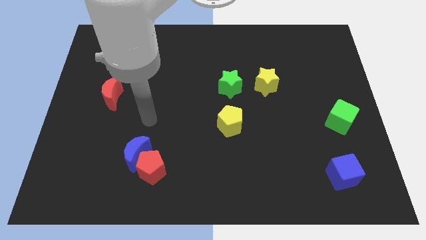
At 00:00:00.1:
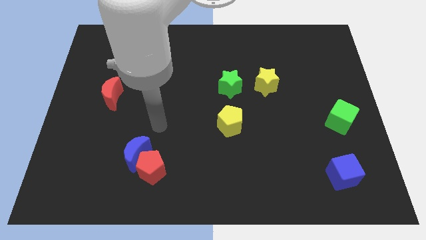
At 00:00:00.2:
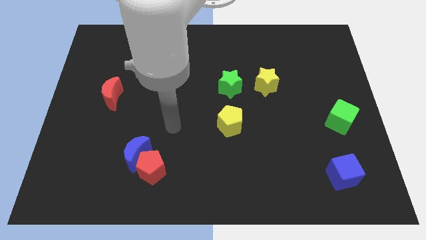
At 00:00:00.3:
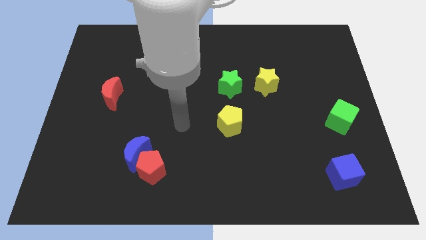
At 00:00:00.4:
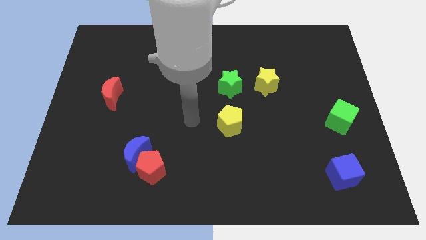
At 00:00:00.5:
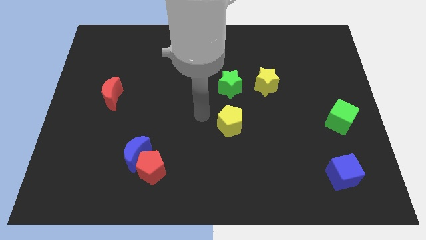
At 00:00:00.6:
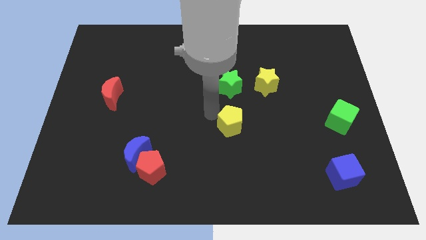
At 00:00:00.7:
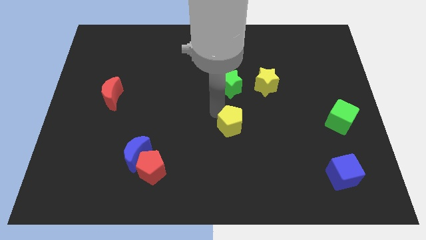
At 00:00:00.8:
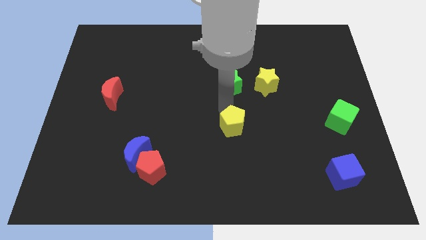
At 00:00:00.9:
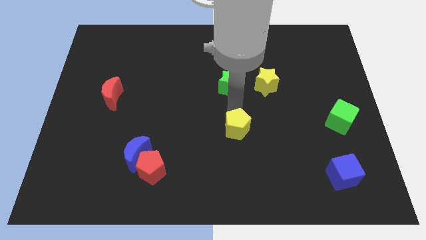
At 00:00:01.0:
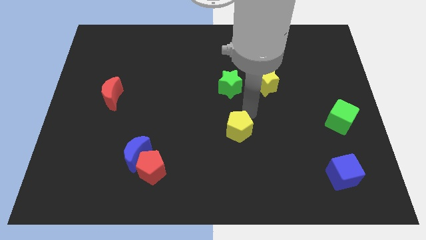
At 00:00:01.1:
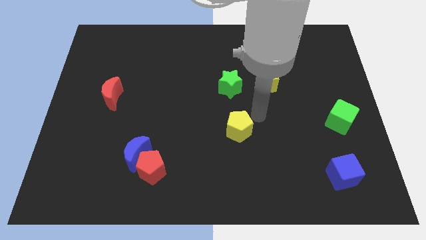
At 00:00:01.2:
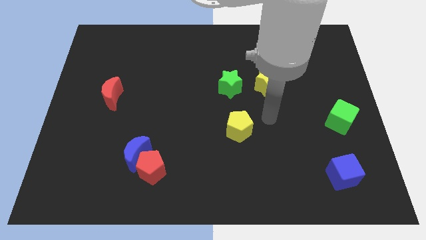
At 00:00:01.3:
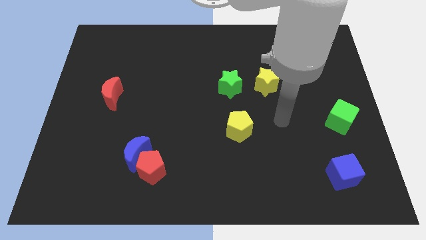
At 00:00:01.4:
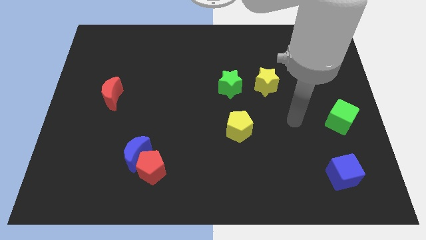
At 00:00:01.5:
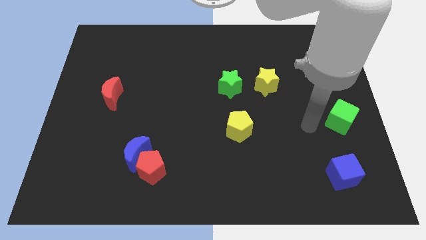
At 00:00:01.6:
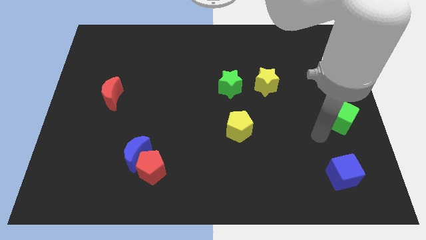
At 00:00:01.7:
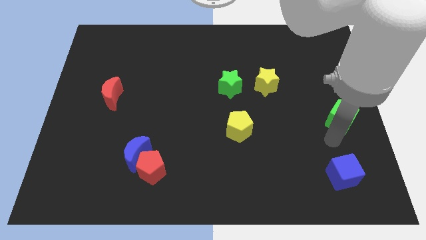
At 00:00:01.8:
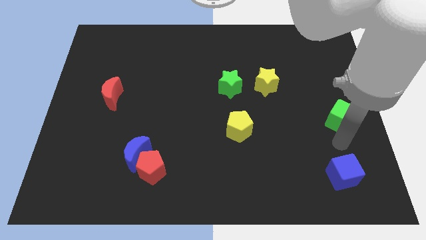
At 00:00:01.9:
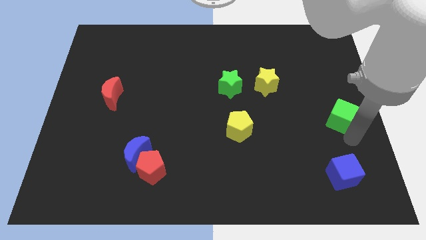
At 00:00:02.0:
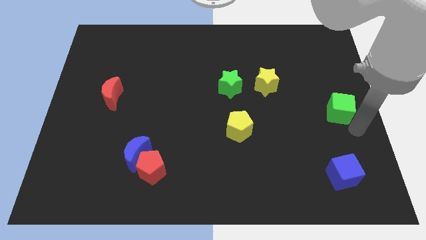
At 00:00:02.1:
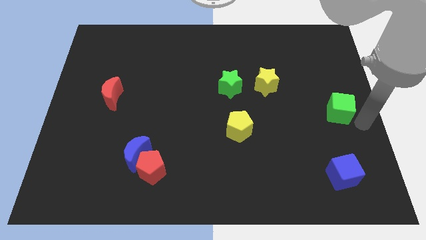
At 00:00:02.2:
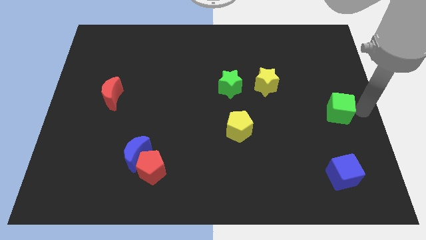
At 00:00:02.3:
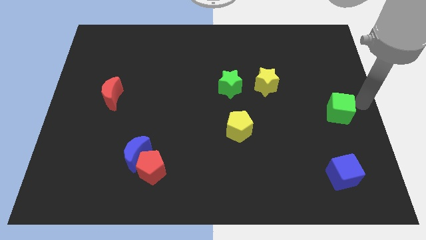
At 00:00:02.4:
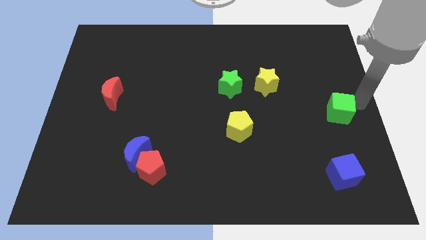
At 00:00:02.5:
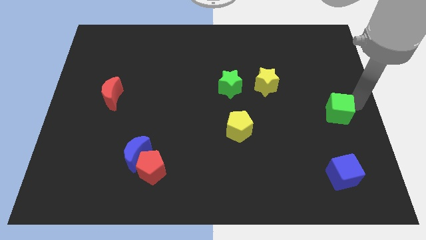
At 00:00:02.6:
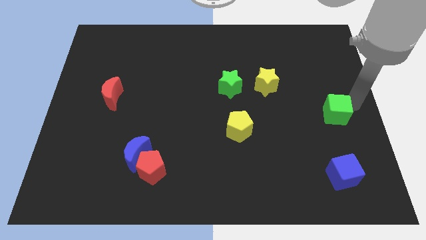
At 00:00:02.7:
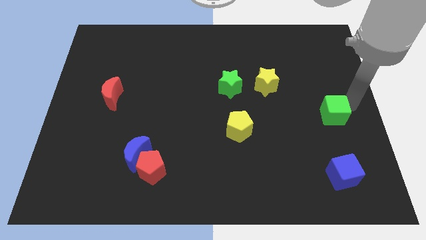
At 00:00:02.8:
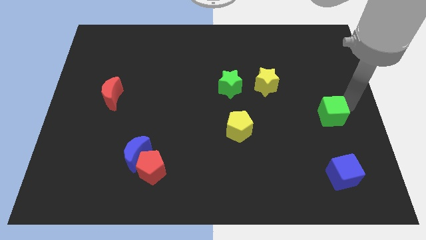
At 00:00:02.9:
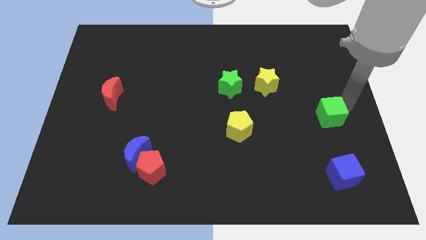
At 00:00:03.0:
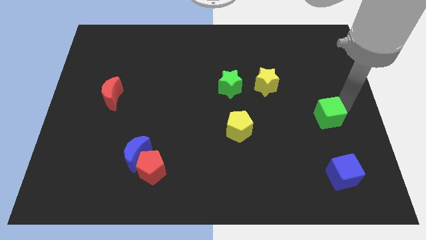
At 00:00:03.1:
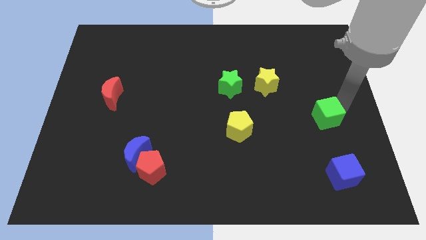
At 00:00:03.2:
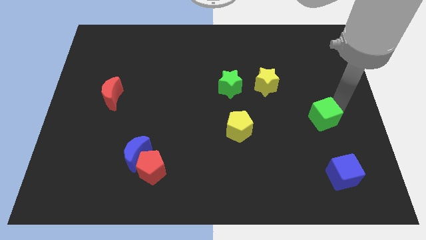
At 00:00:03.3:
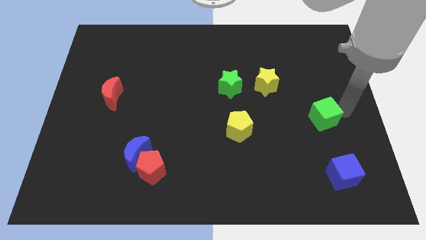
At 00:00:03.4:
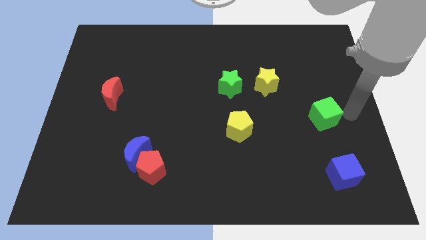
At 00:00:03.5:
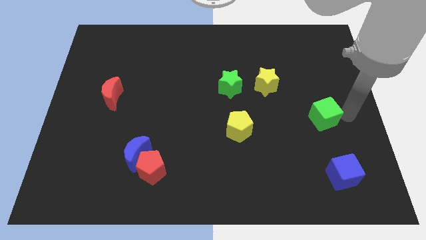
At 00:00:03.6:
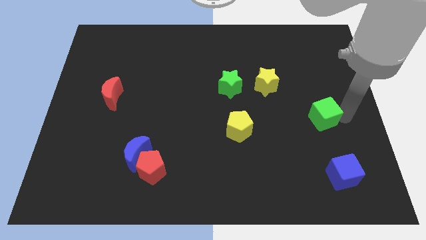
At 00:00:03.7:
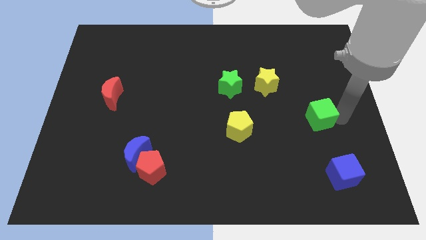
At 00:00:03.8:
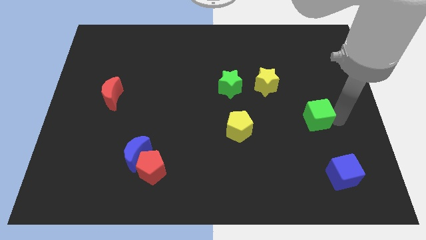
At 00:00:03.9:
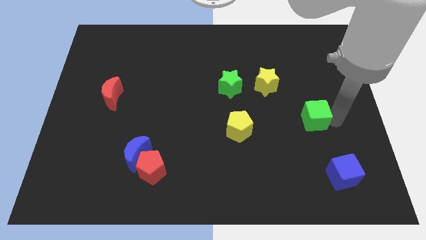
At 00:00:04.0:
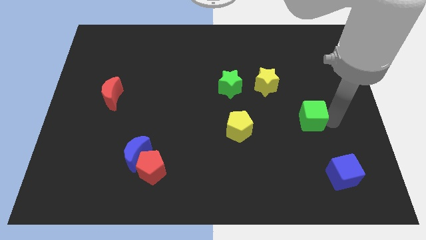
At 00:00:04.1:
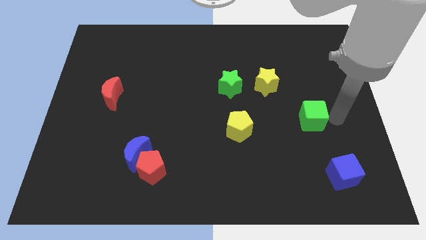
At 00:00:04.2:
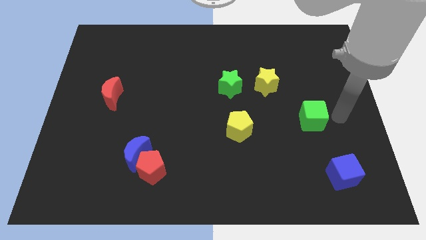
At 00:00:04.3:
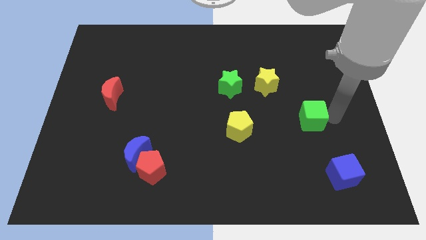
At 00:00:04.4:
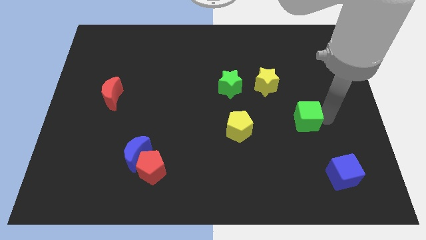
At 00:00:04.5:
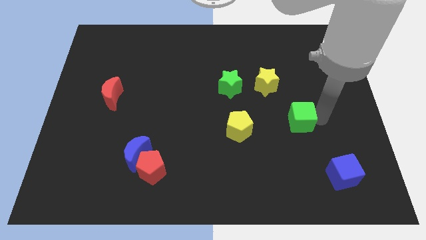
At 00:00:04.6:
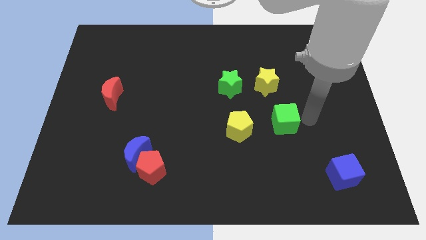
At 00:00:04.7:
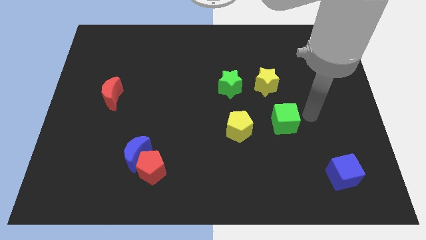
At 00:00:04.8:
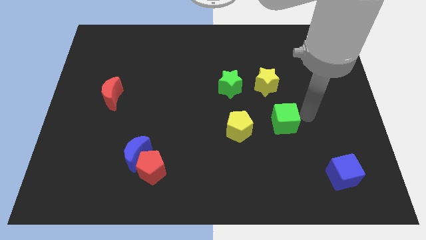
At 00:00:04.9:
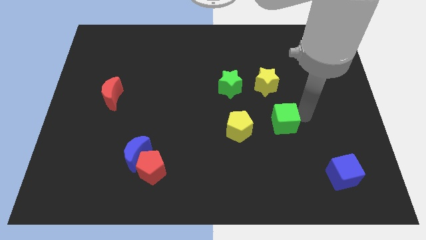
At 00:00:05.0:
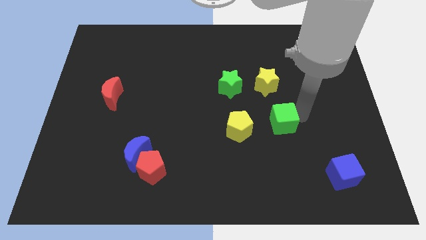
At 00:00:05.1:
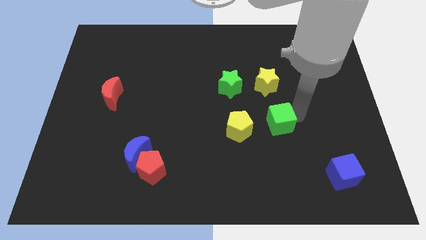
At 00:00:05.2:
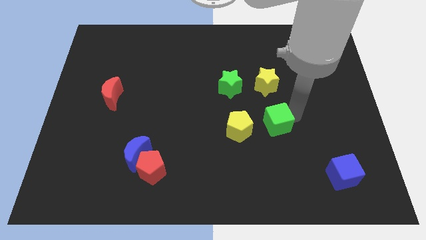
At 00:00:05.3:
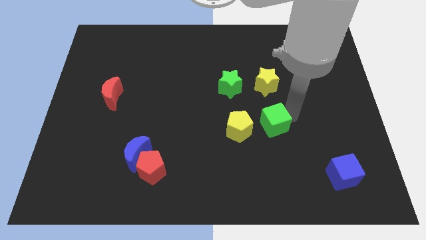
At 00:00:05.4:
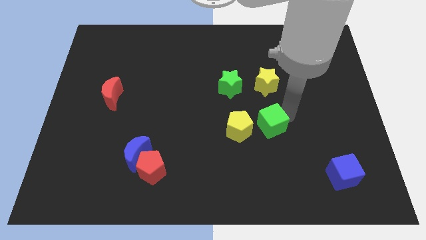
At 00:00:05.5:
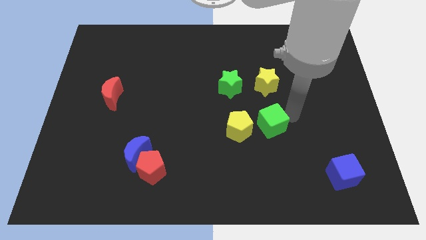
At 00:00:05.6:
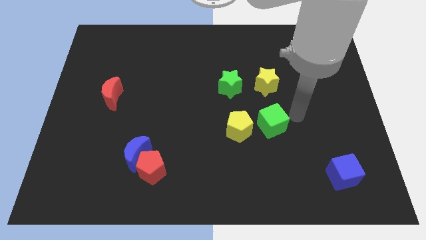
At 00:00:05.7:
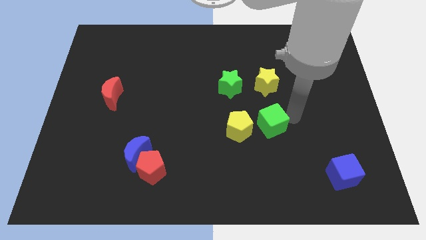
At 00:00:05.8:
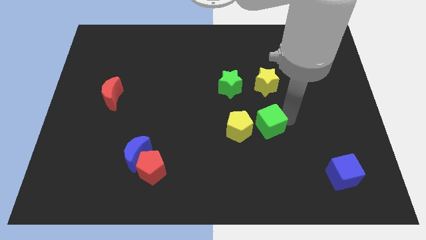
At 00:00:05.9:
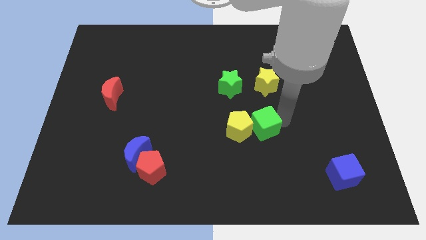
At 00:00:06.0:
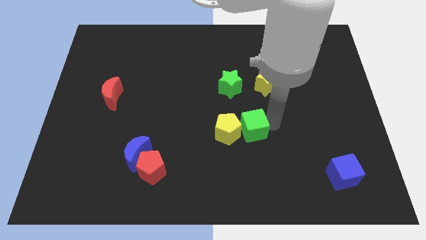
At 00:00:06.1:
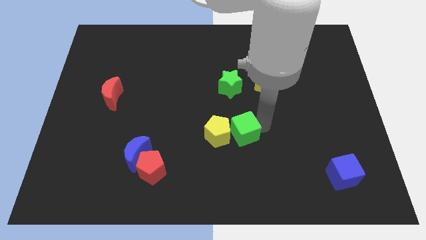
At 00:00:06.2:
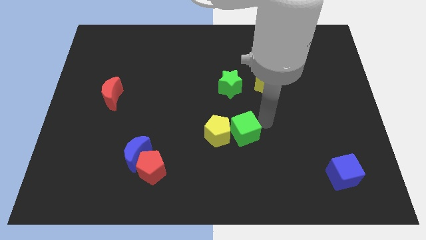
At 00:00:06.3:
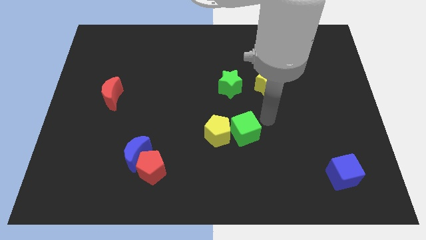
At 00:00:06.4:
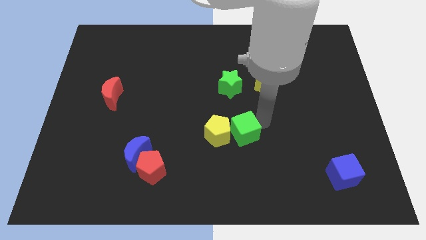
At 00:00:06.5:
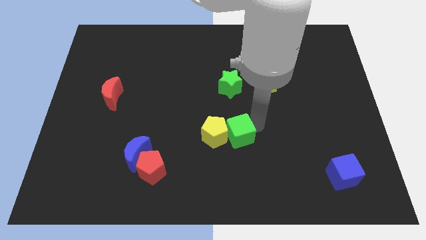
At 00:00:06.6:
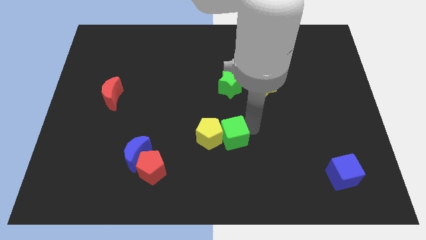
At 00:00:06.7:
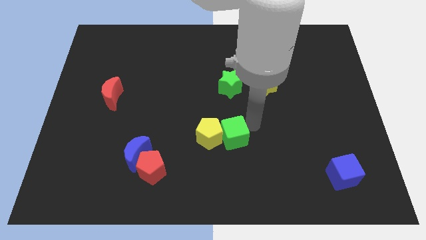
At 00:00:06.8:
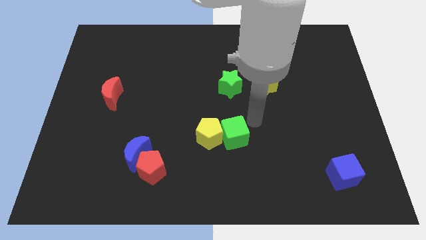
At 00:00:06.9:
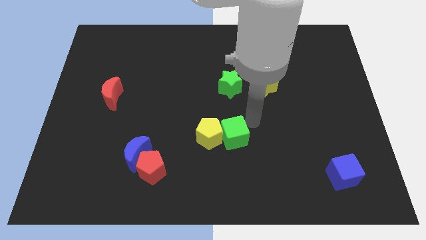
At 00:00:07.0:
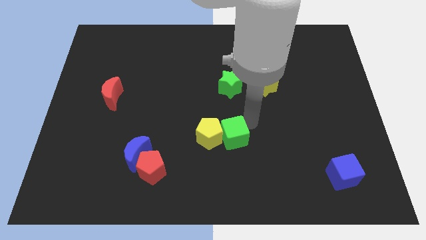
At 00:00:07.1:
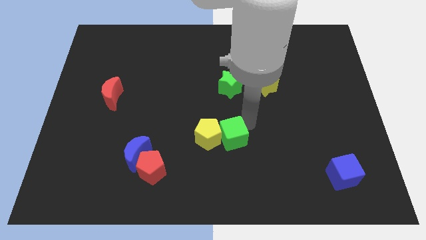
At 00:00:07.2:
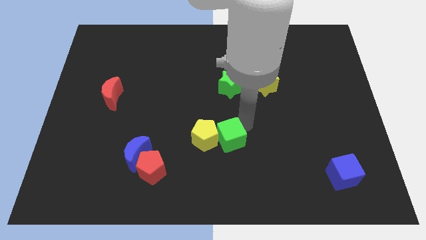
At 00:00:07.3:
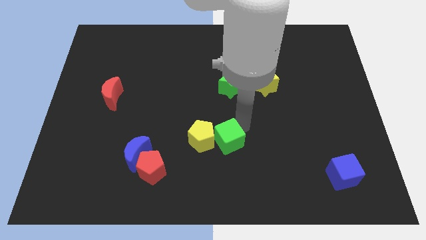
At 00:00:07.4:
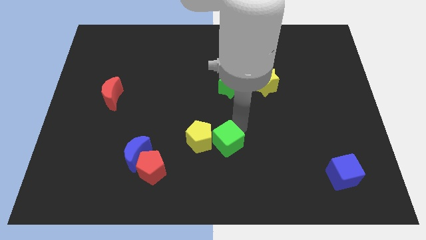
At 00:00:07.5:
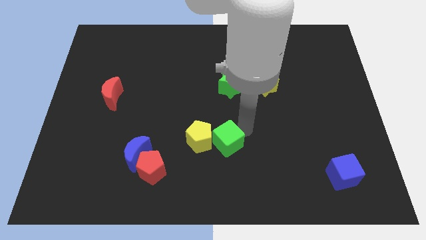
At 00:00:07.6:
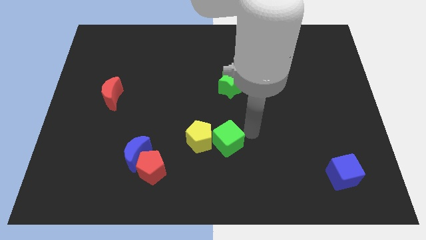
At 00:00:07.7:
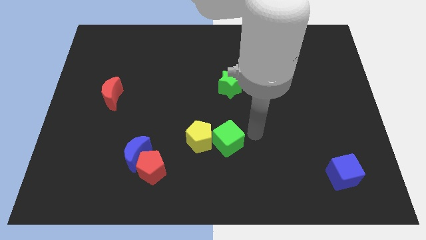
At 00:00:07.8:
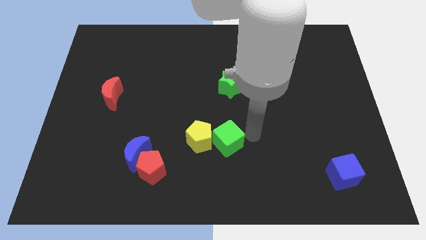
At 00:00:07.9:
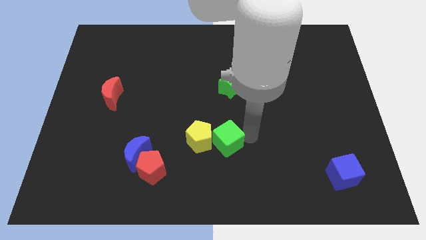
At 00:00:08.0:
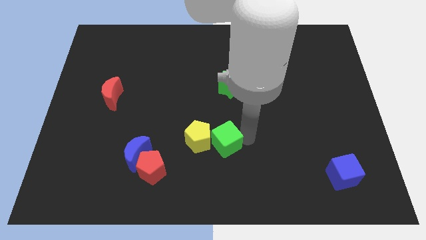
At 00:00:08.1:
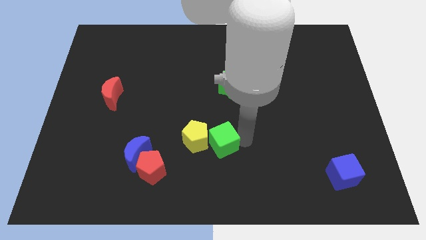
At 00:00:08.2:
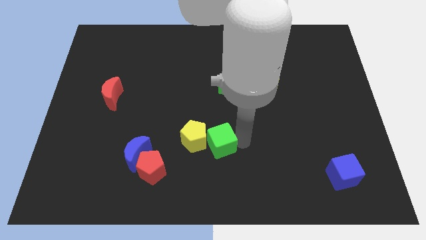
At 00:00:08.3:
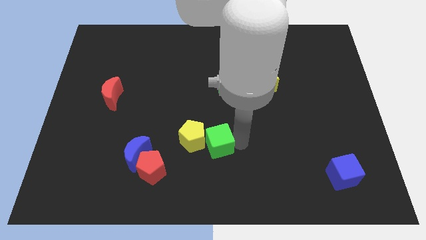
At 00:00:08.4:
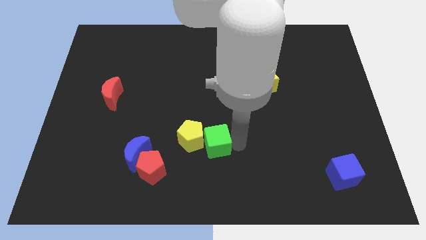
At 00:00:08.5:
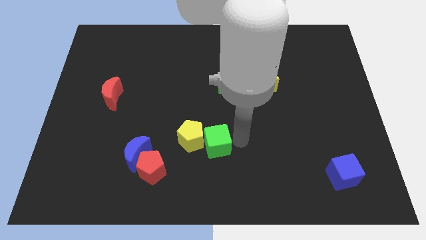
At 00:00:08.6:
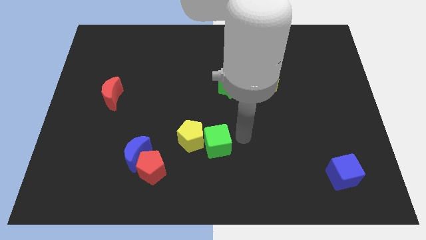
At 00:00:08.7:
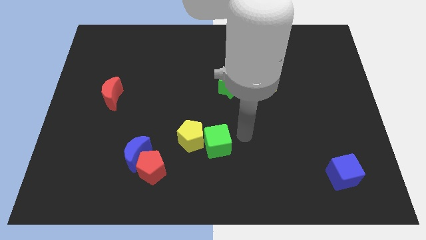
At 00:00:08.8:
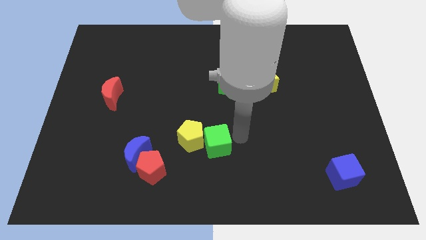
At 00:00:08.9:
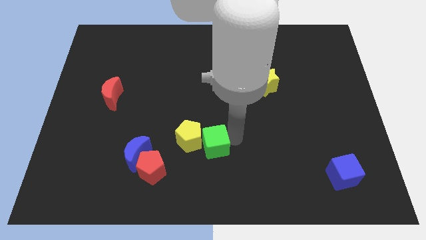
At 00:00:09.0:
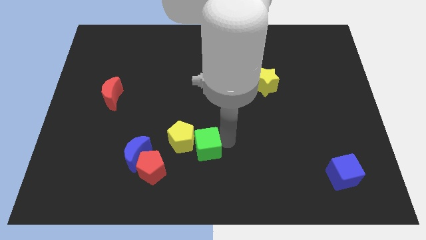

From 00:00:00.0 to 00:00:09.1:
slide the green cube right of the blue moon
